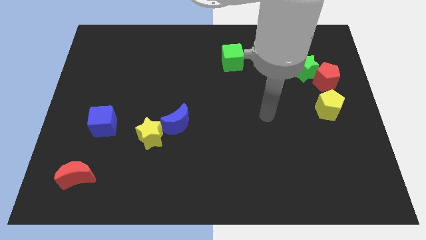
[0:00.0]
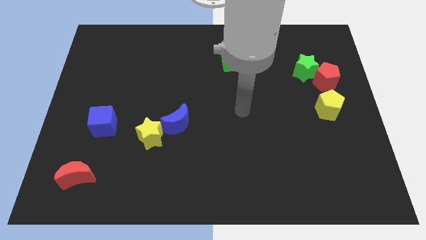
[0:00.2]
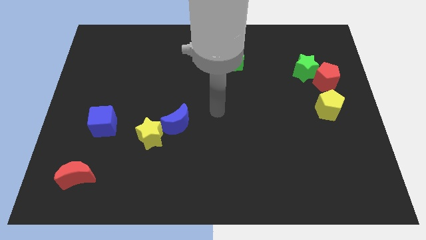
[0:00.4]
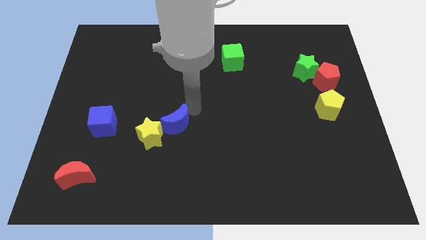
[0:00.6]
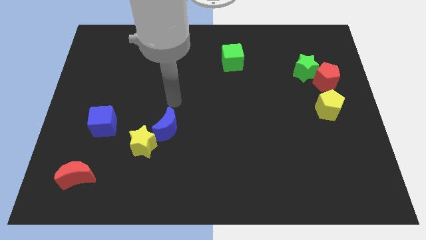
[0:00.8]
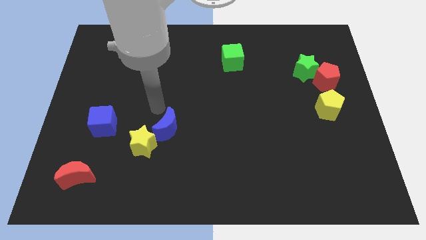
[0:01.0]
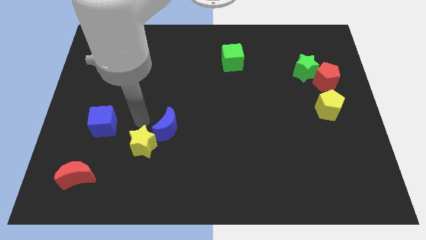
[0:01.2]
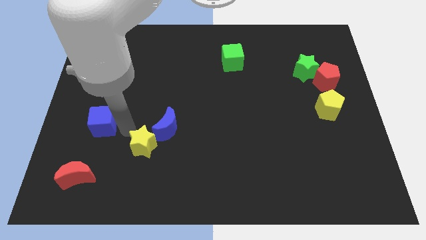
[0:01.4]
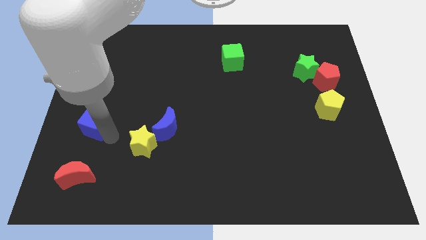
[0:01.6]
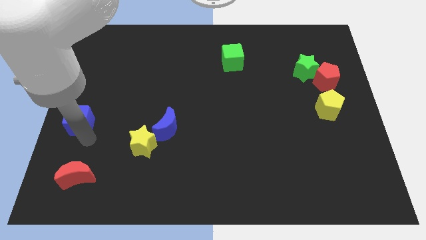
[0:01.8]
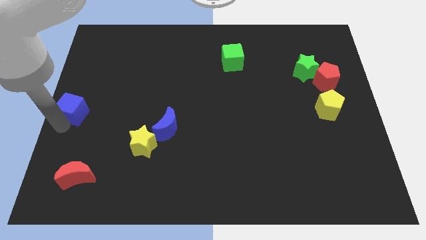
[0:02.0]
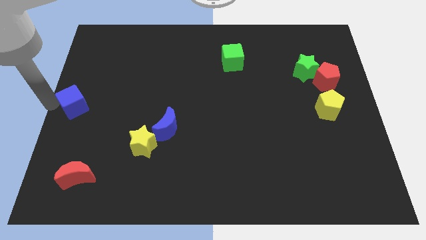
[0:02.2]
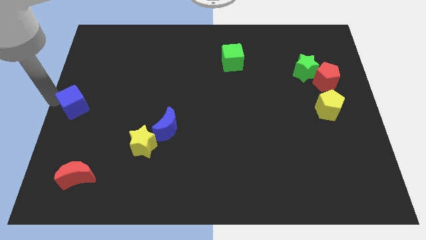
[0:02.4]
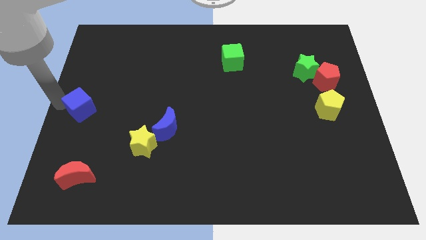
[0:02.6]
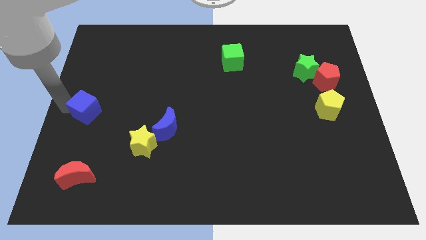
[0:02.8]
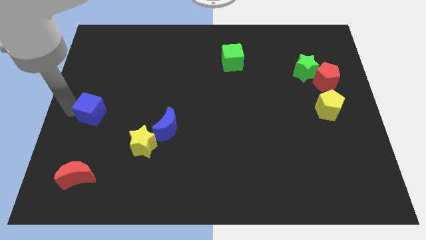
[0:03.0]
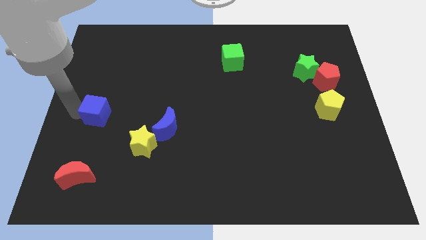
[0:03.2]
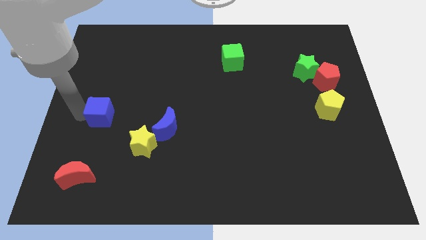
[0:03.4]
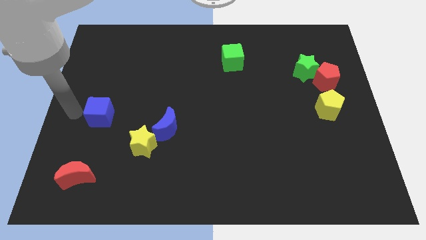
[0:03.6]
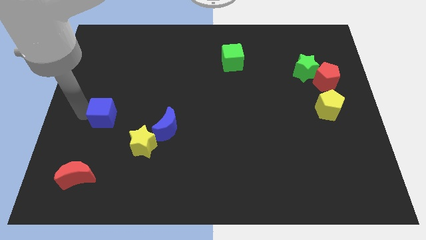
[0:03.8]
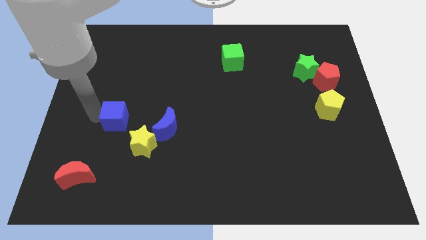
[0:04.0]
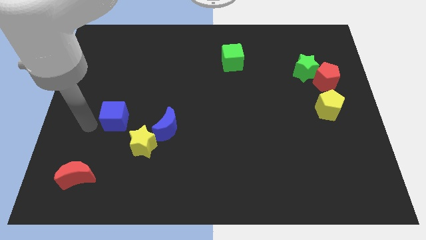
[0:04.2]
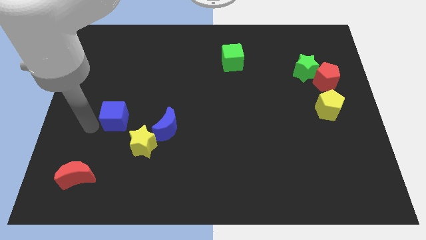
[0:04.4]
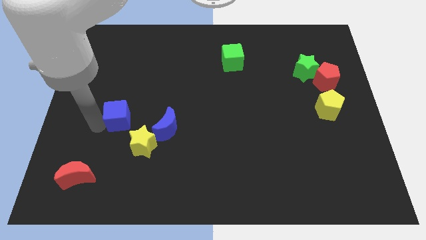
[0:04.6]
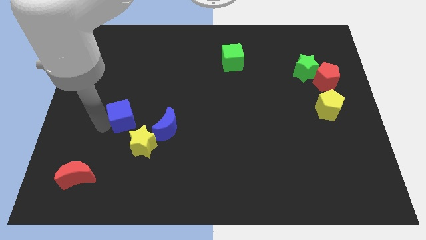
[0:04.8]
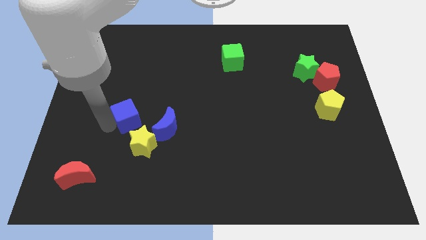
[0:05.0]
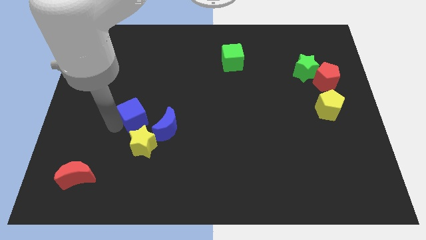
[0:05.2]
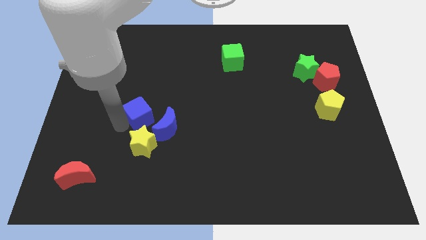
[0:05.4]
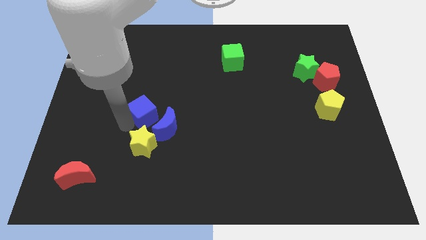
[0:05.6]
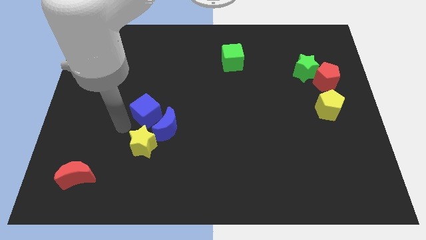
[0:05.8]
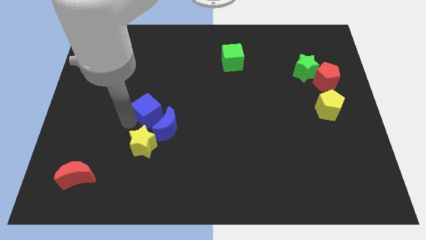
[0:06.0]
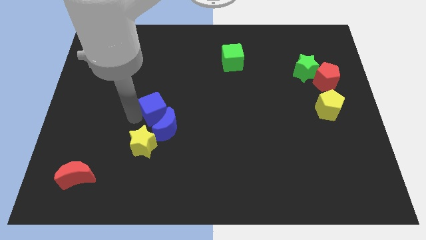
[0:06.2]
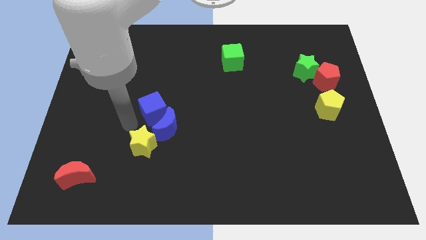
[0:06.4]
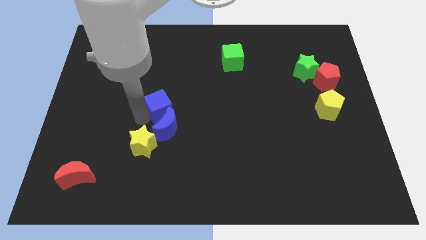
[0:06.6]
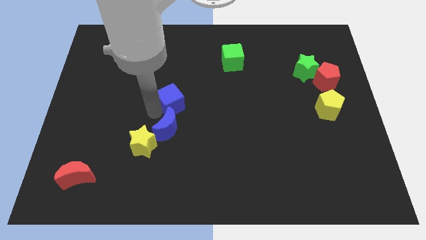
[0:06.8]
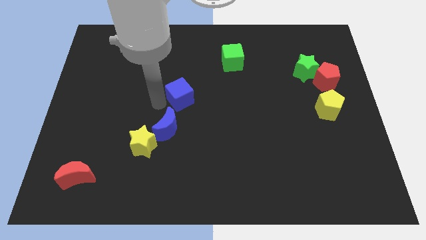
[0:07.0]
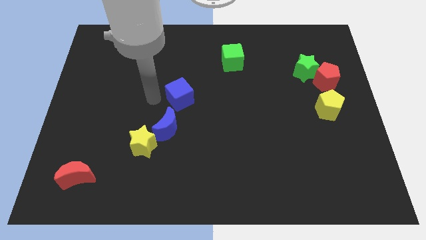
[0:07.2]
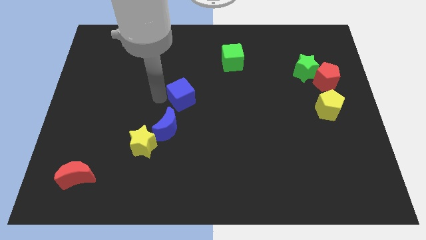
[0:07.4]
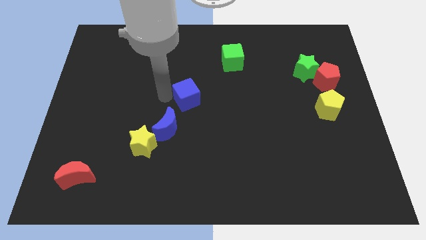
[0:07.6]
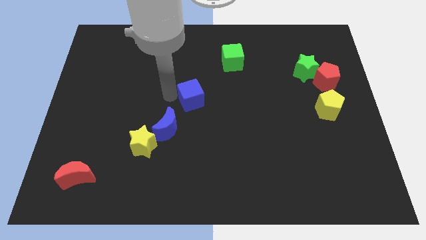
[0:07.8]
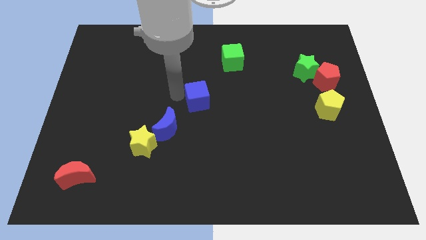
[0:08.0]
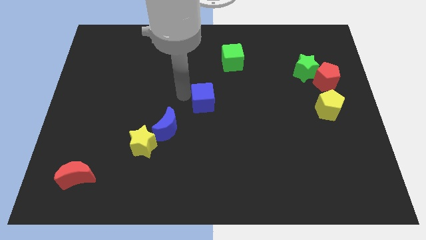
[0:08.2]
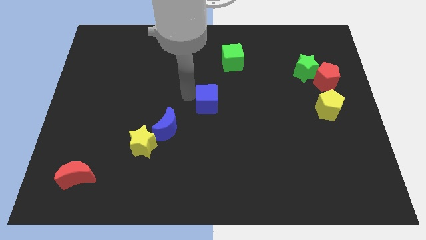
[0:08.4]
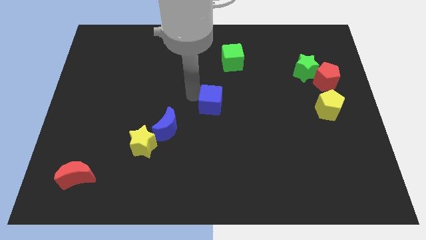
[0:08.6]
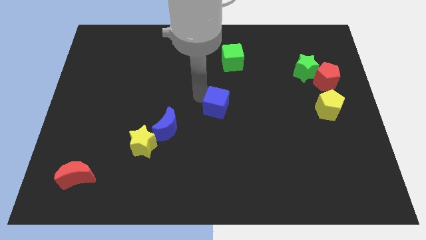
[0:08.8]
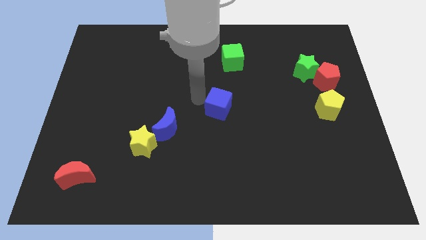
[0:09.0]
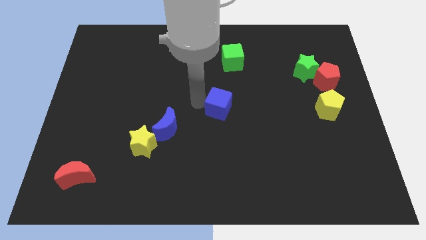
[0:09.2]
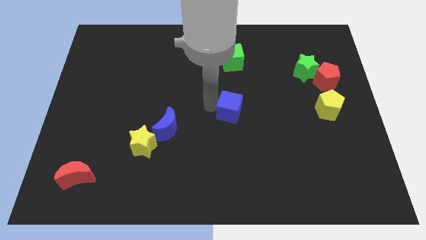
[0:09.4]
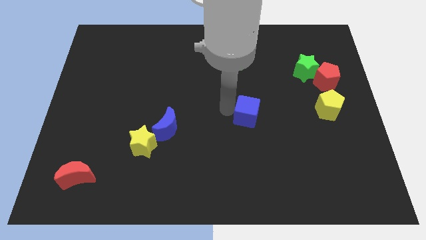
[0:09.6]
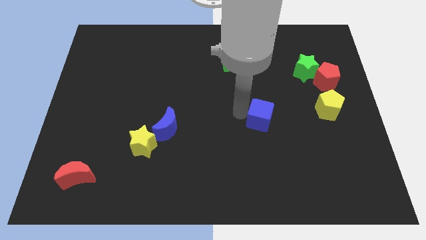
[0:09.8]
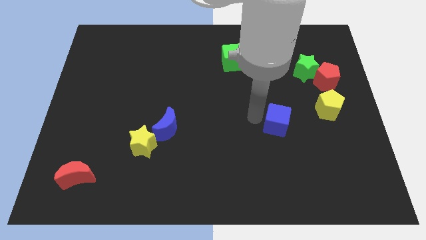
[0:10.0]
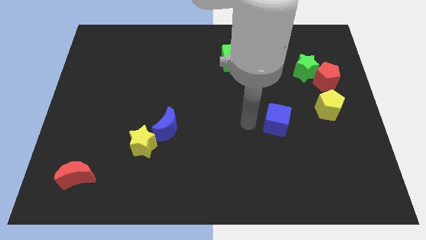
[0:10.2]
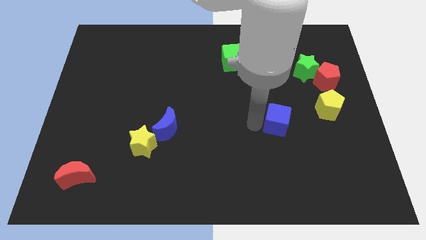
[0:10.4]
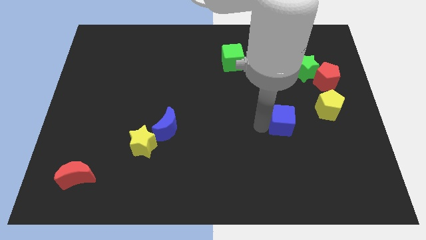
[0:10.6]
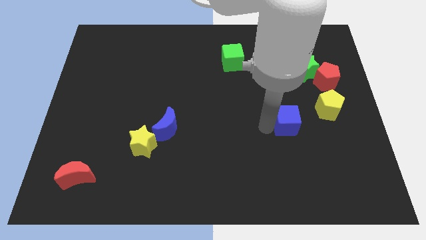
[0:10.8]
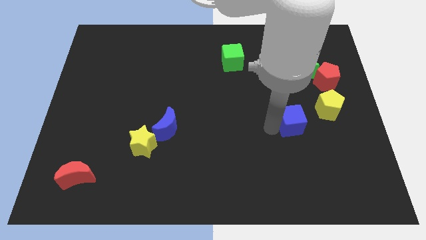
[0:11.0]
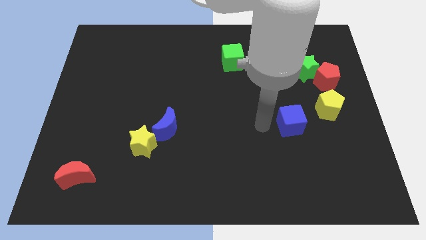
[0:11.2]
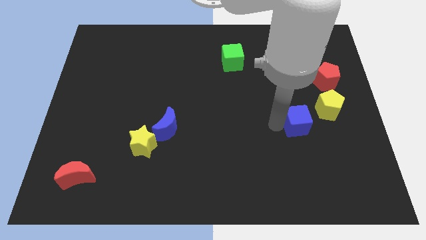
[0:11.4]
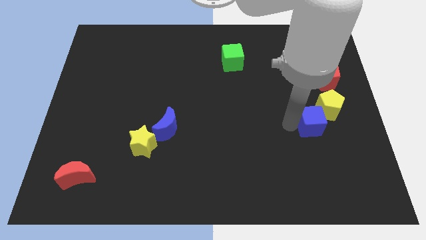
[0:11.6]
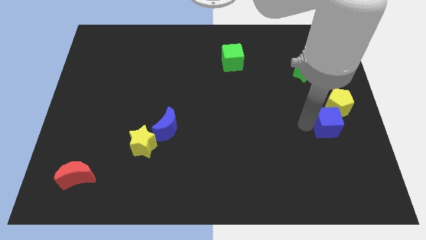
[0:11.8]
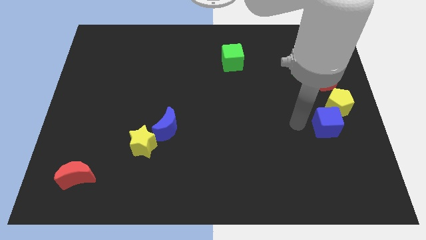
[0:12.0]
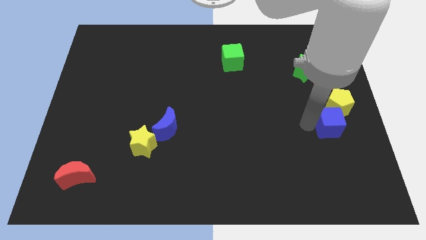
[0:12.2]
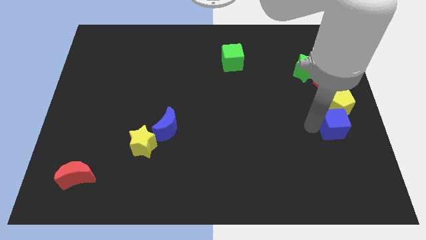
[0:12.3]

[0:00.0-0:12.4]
push the blue cube to the right side of the board

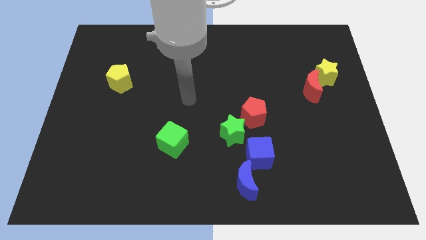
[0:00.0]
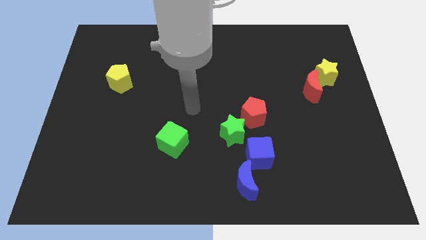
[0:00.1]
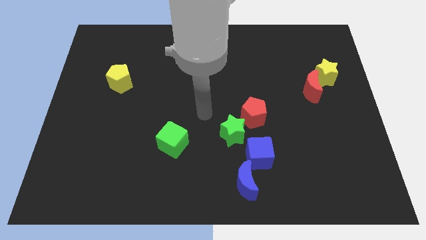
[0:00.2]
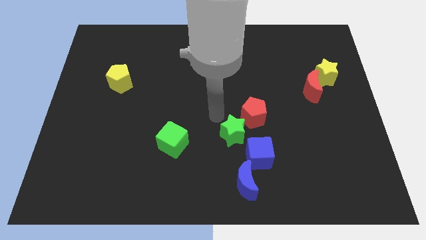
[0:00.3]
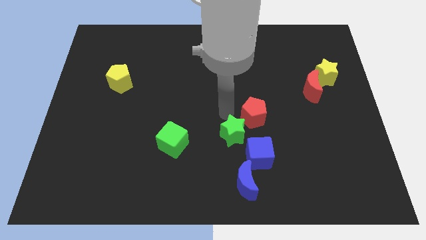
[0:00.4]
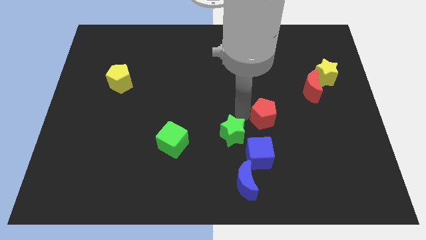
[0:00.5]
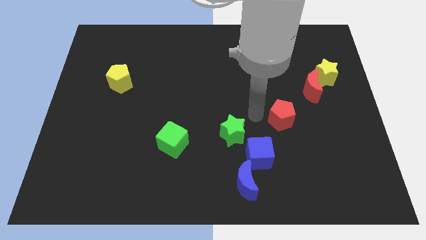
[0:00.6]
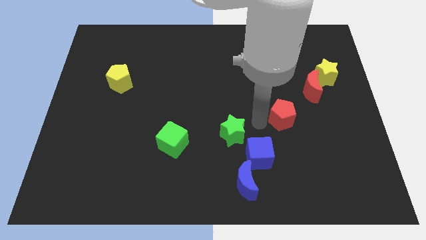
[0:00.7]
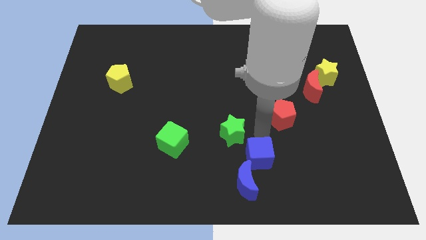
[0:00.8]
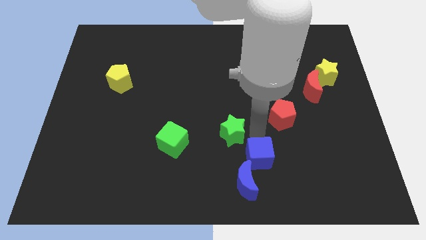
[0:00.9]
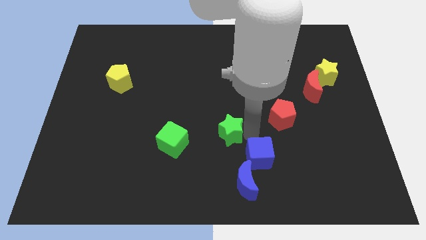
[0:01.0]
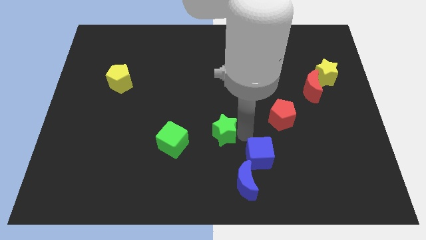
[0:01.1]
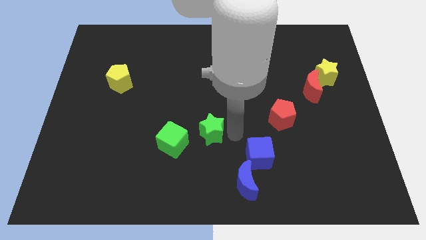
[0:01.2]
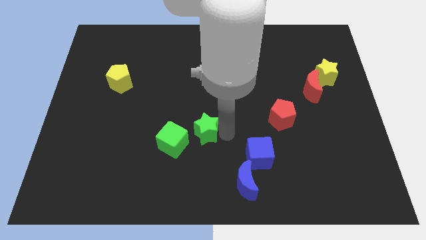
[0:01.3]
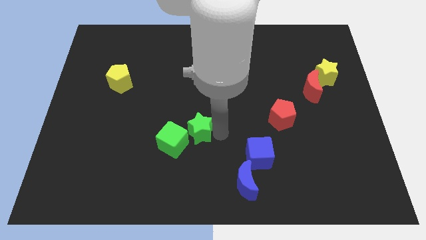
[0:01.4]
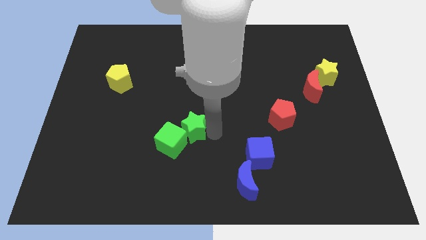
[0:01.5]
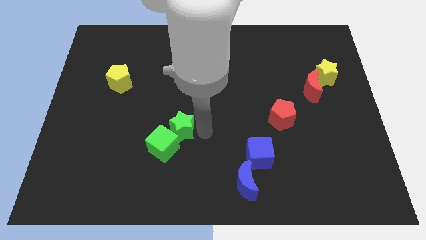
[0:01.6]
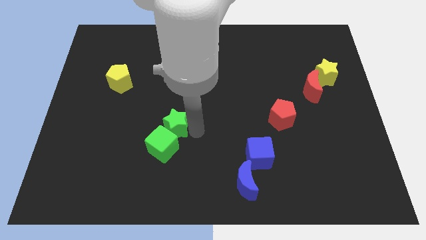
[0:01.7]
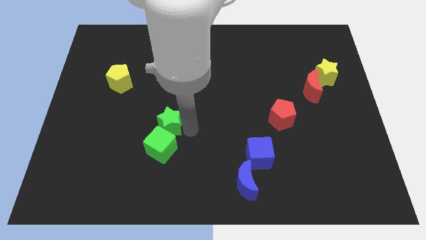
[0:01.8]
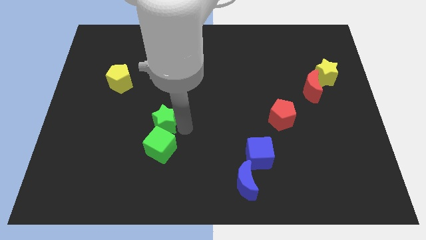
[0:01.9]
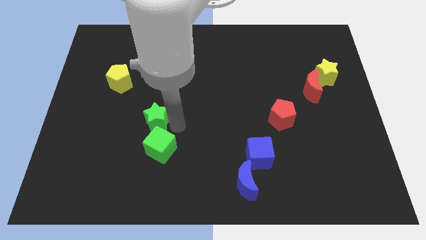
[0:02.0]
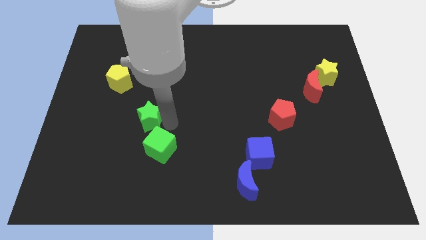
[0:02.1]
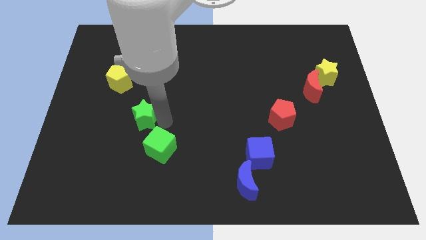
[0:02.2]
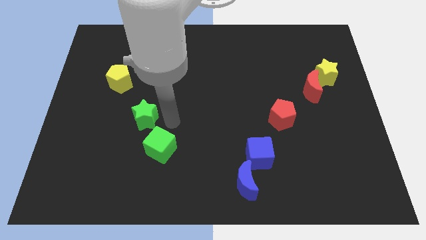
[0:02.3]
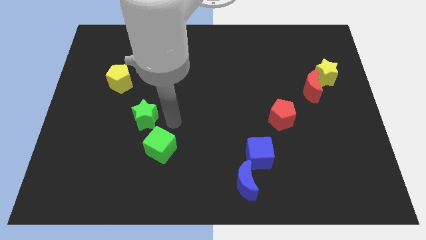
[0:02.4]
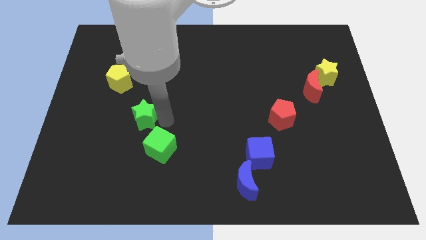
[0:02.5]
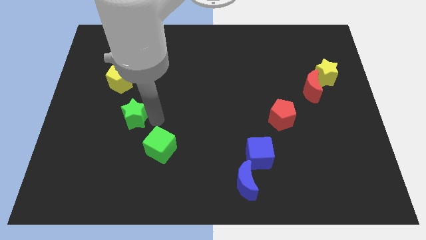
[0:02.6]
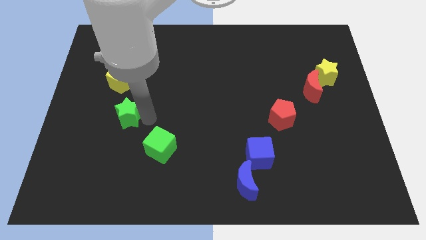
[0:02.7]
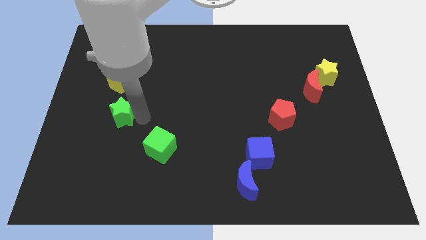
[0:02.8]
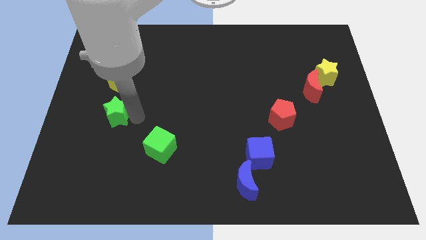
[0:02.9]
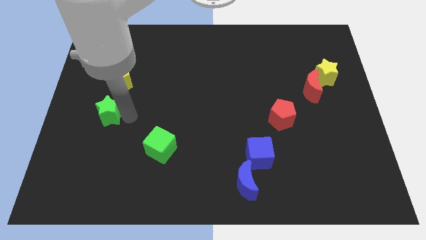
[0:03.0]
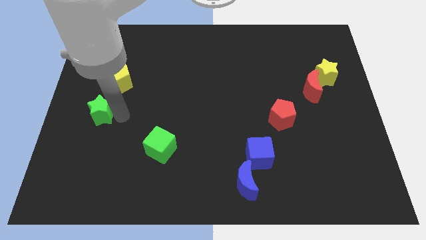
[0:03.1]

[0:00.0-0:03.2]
put the green star to the left side
